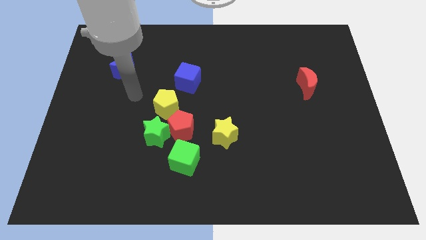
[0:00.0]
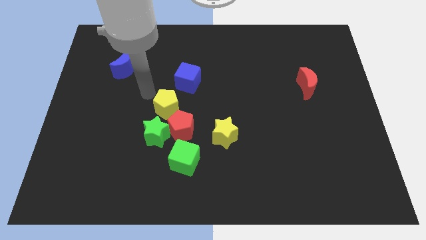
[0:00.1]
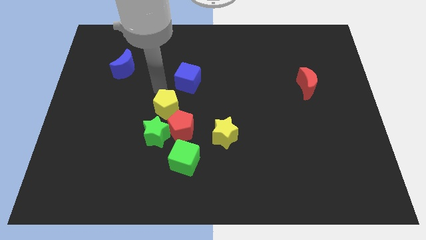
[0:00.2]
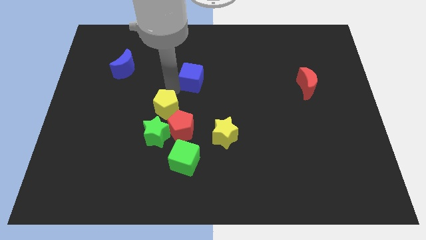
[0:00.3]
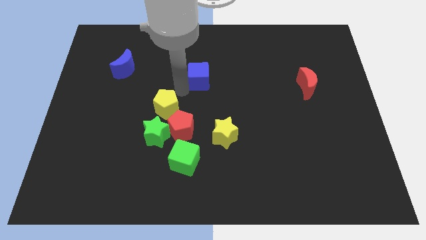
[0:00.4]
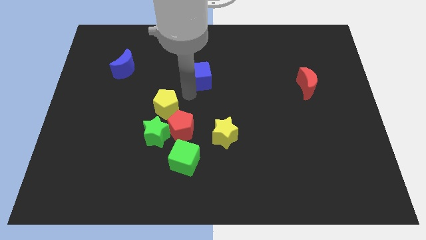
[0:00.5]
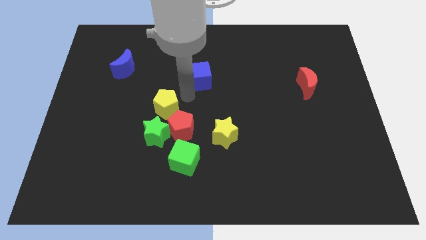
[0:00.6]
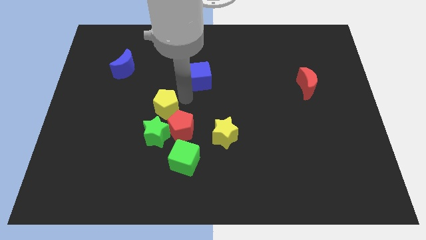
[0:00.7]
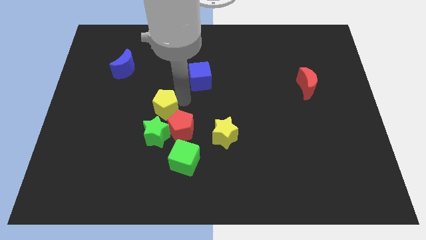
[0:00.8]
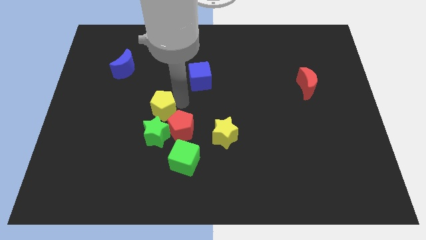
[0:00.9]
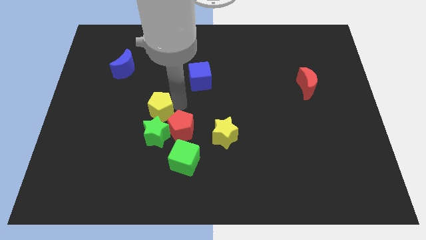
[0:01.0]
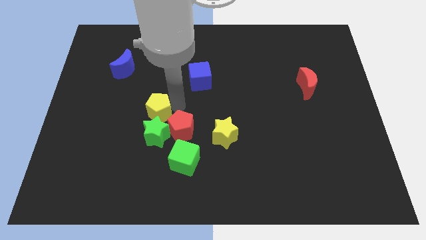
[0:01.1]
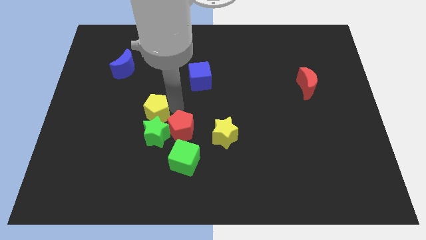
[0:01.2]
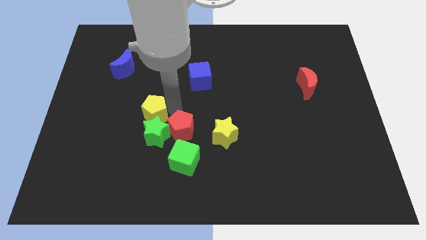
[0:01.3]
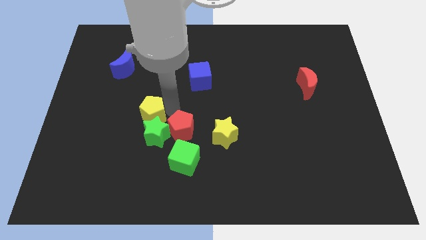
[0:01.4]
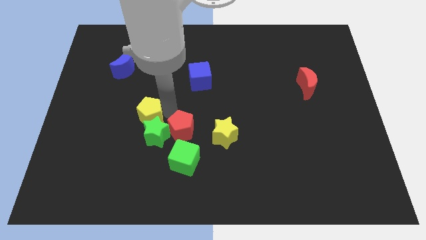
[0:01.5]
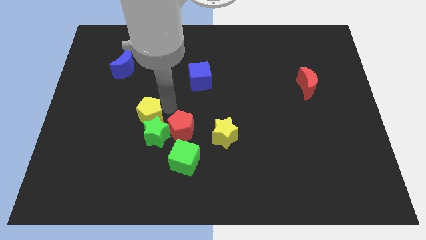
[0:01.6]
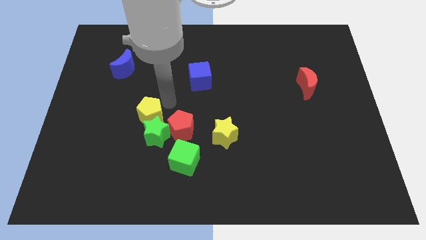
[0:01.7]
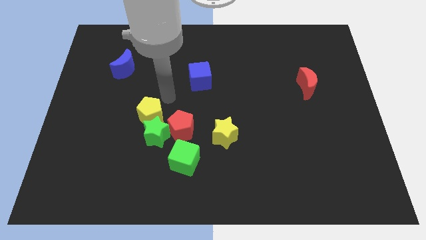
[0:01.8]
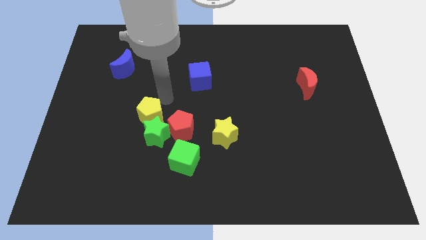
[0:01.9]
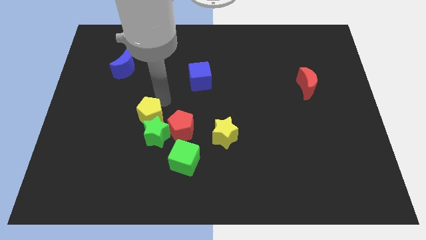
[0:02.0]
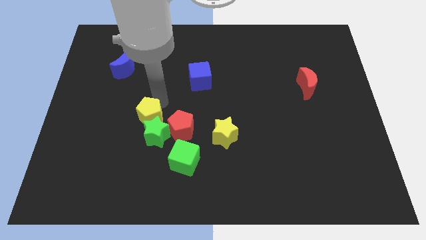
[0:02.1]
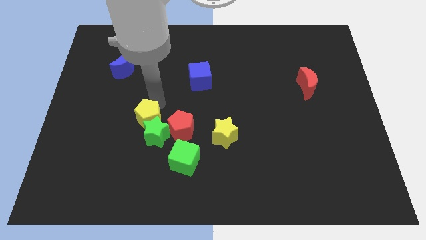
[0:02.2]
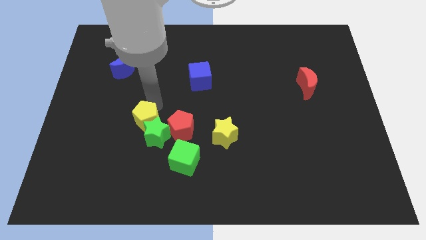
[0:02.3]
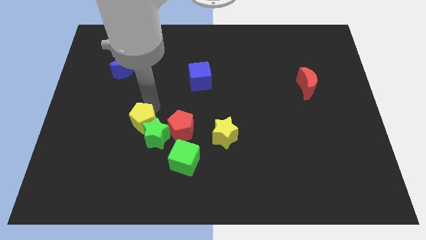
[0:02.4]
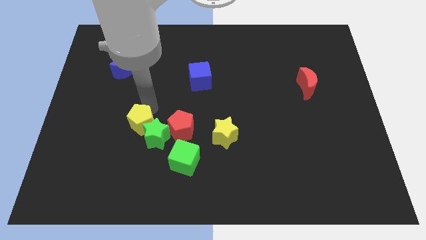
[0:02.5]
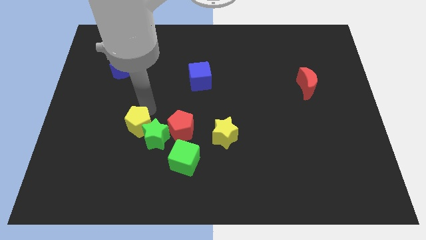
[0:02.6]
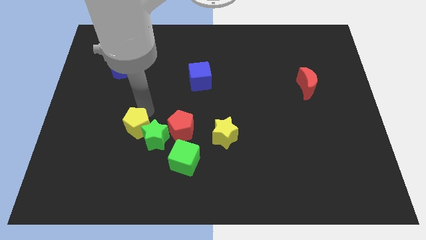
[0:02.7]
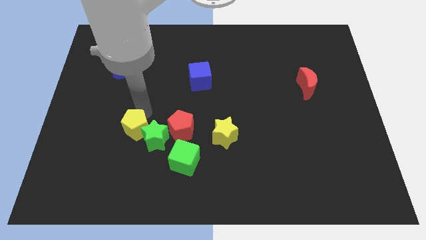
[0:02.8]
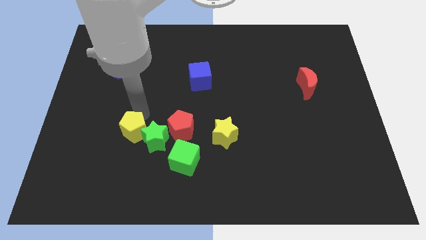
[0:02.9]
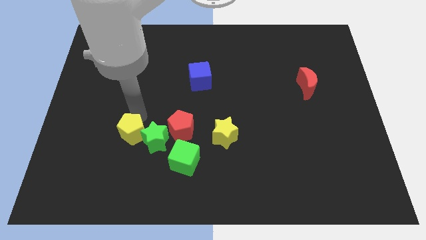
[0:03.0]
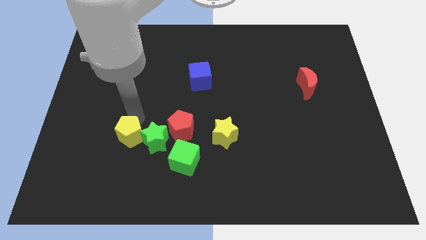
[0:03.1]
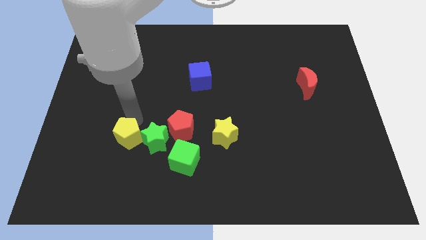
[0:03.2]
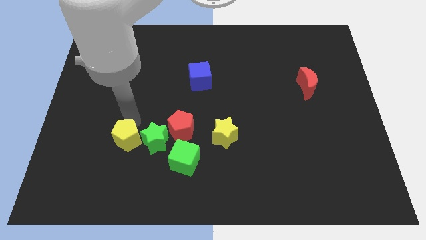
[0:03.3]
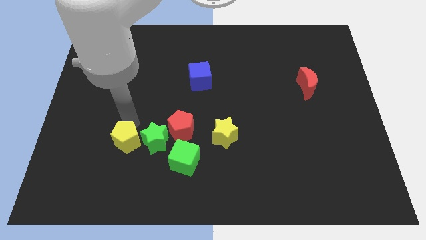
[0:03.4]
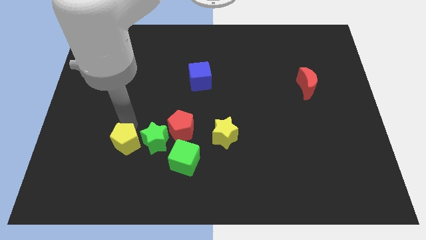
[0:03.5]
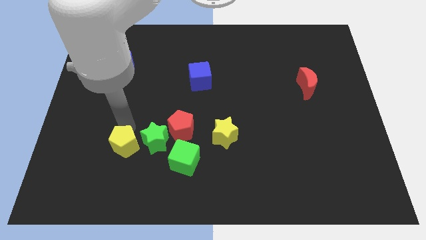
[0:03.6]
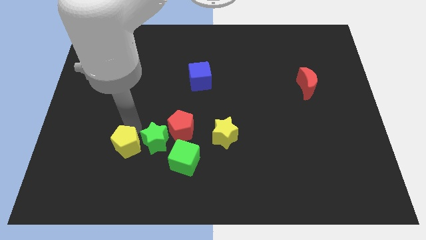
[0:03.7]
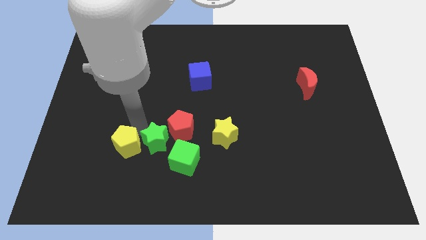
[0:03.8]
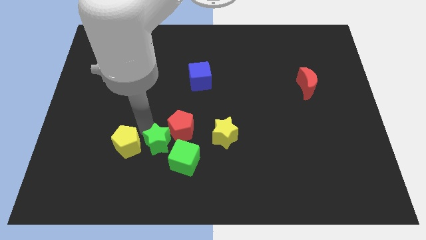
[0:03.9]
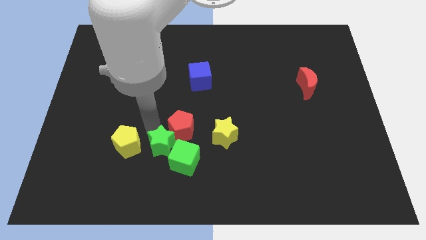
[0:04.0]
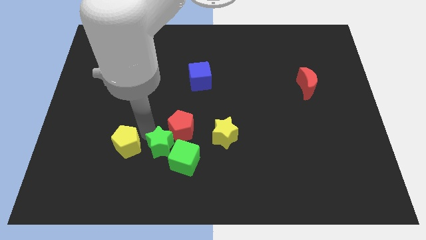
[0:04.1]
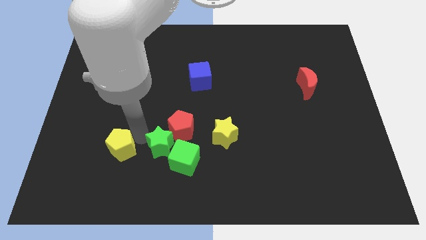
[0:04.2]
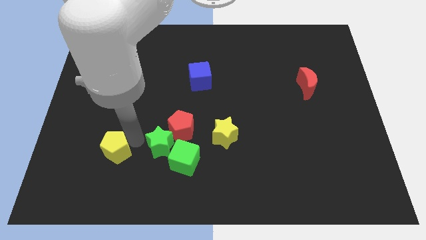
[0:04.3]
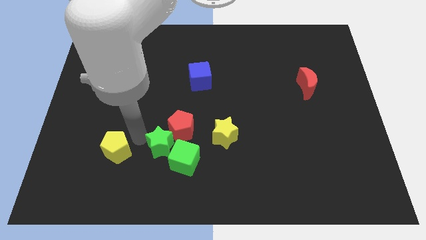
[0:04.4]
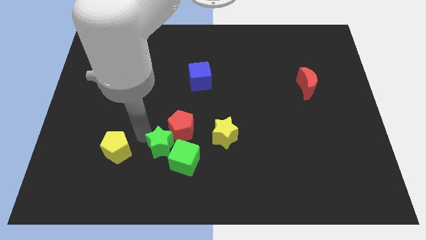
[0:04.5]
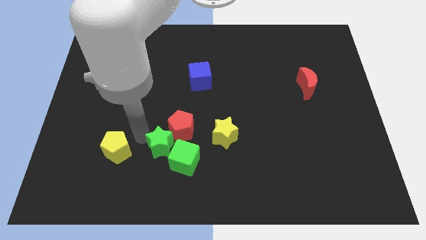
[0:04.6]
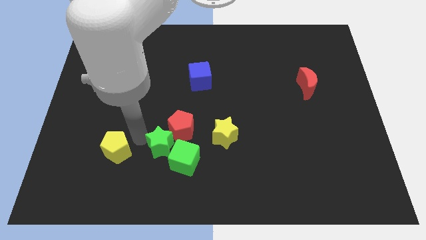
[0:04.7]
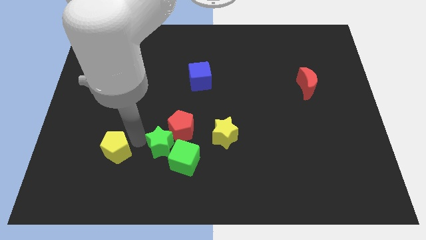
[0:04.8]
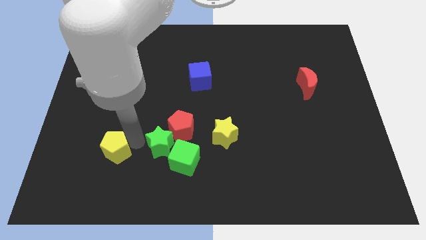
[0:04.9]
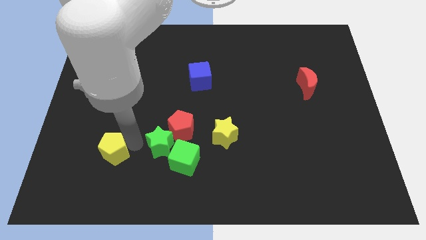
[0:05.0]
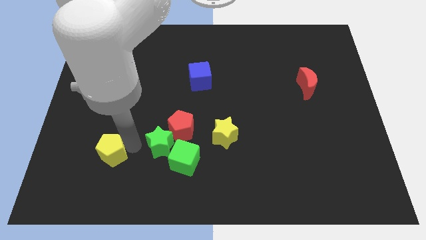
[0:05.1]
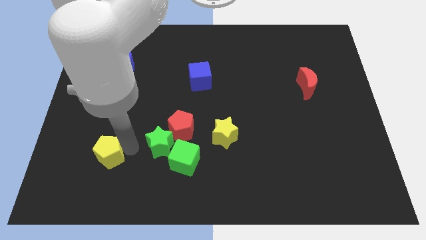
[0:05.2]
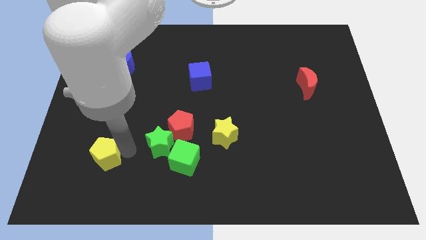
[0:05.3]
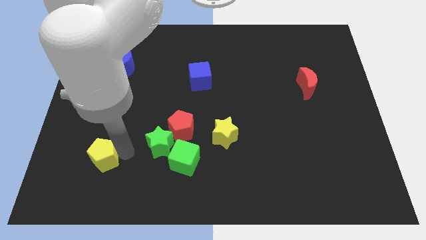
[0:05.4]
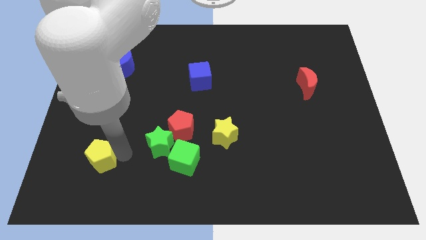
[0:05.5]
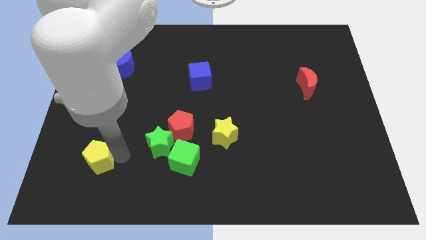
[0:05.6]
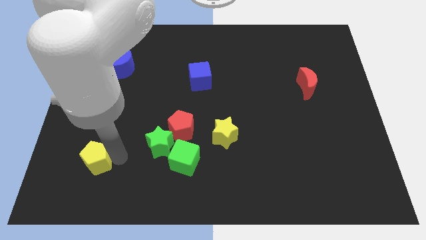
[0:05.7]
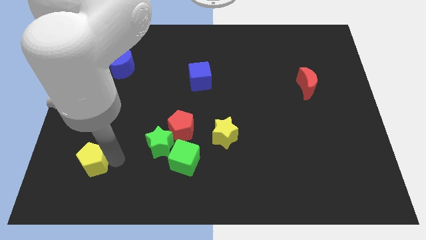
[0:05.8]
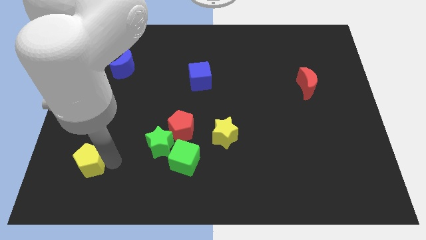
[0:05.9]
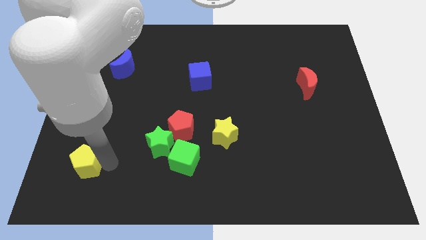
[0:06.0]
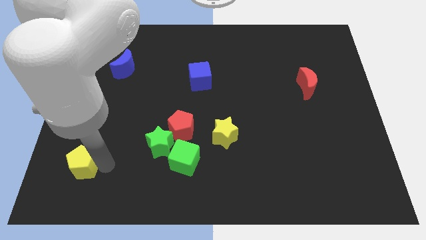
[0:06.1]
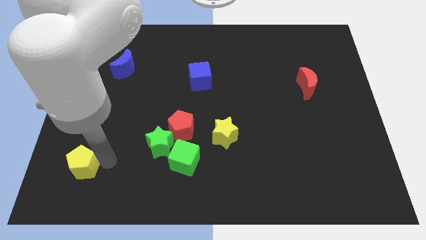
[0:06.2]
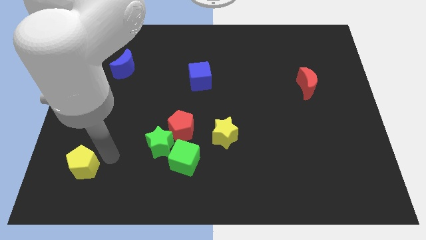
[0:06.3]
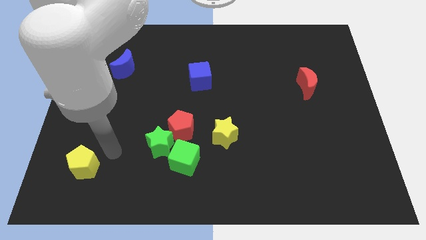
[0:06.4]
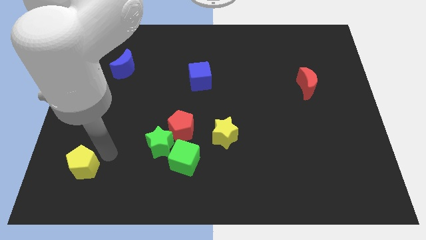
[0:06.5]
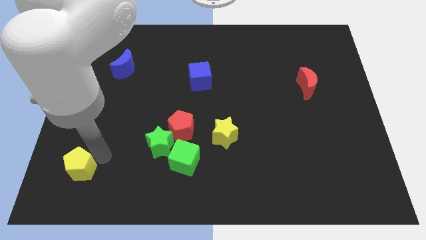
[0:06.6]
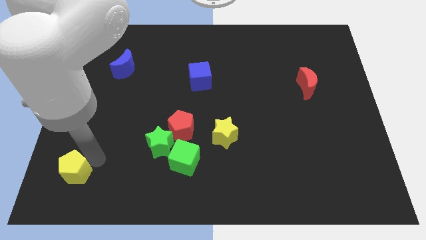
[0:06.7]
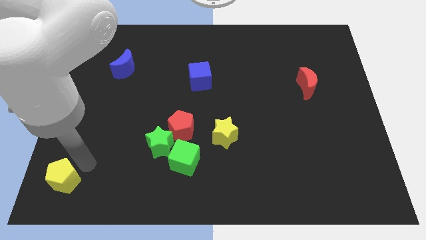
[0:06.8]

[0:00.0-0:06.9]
push the yellow pentagon to the lower left corner

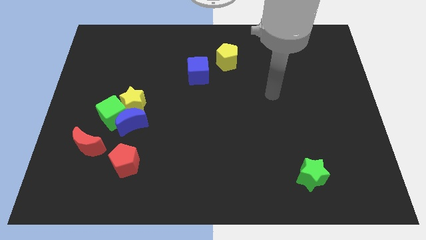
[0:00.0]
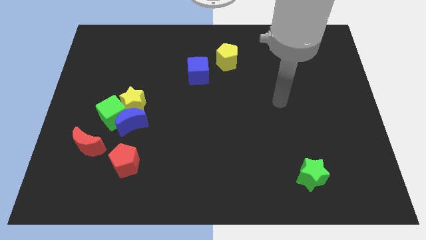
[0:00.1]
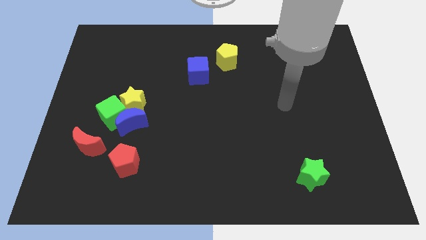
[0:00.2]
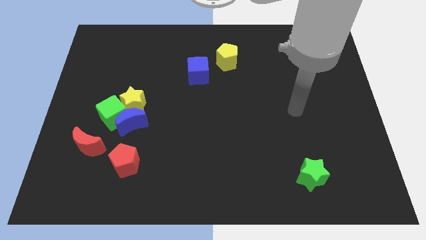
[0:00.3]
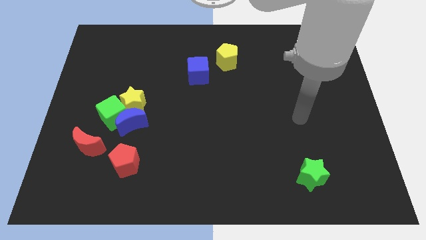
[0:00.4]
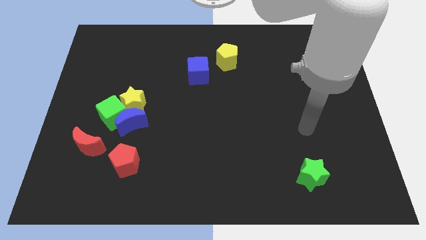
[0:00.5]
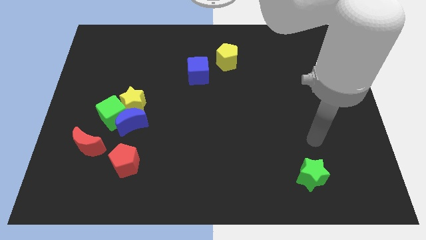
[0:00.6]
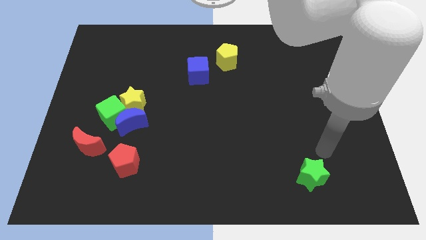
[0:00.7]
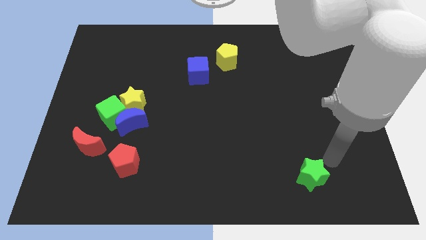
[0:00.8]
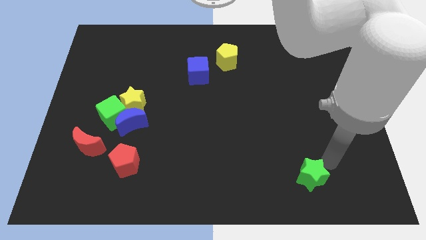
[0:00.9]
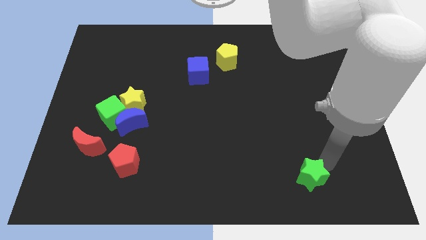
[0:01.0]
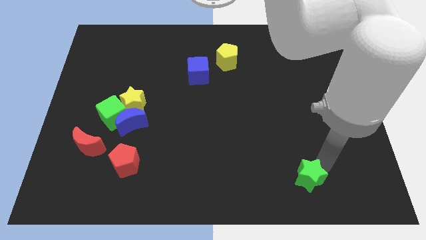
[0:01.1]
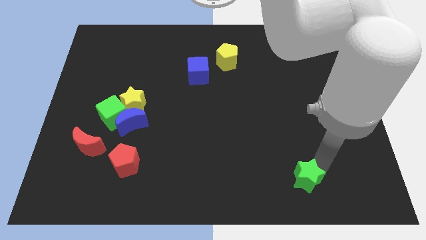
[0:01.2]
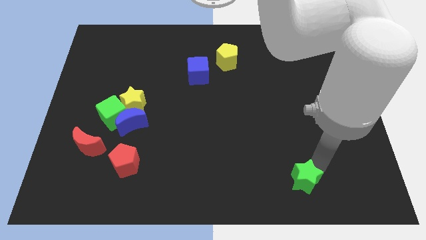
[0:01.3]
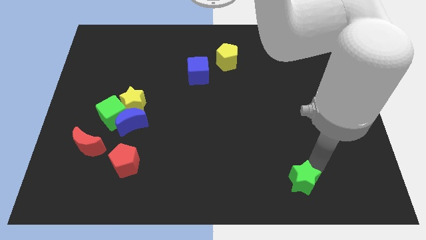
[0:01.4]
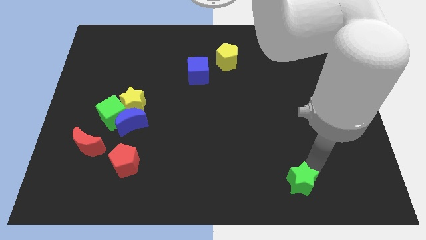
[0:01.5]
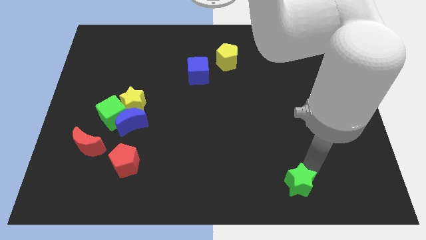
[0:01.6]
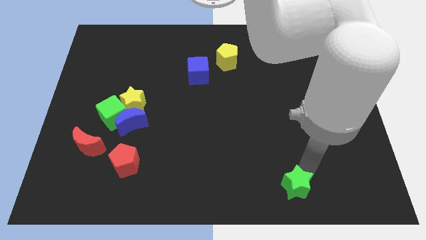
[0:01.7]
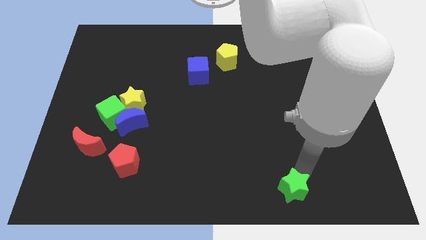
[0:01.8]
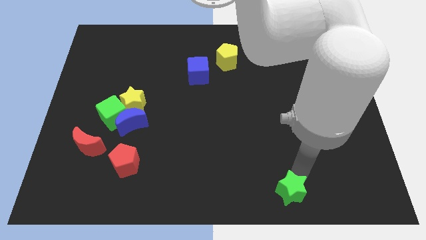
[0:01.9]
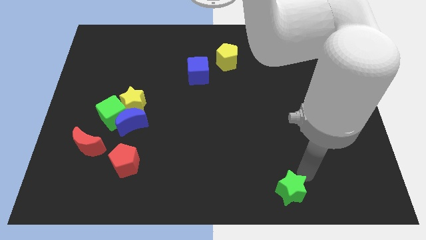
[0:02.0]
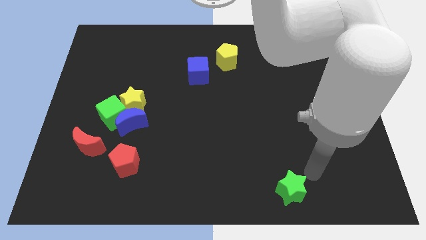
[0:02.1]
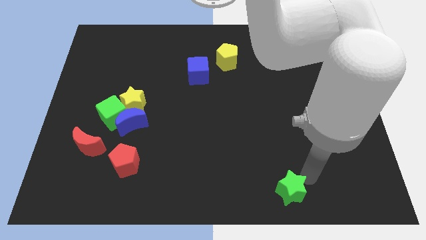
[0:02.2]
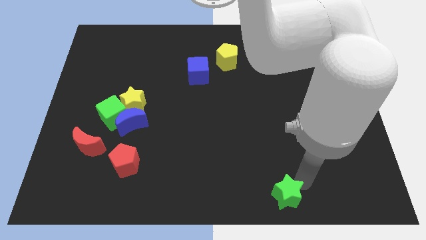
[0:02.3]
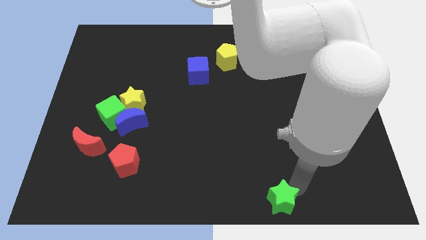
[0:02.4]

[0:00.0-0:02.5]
move the green star to the bottom side
